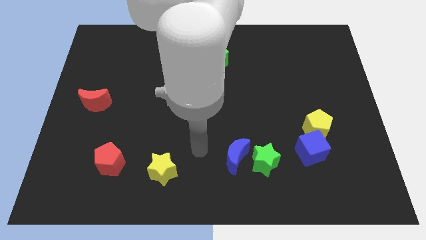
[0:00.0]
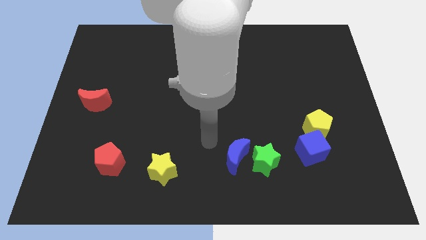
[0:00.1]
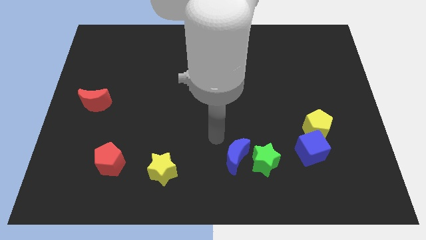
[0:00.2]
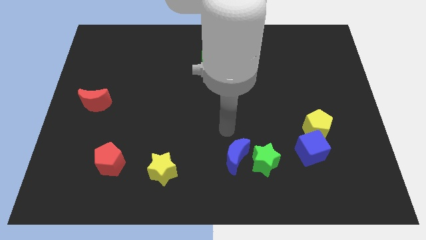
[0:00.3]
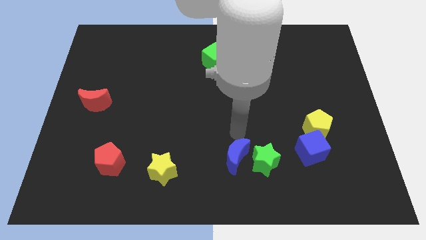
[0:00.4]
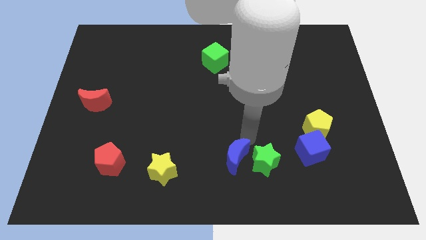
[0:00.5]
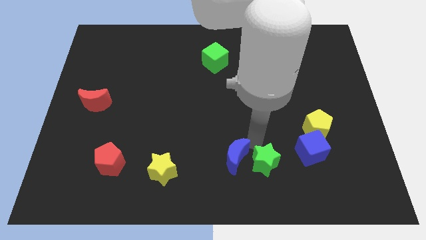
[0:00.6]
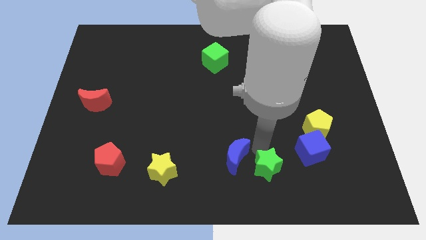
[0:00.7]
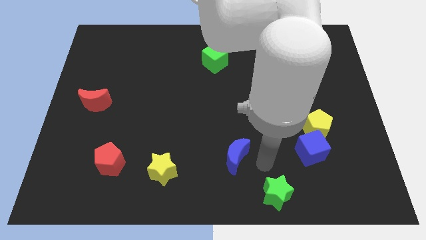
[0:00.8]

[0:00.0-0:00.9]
separate the blue moon from the green star

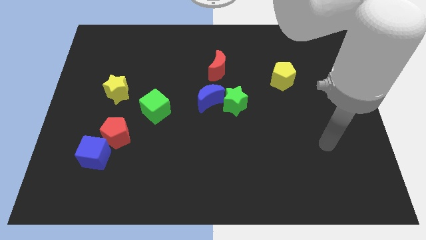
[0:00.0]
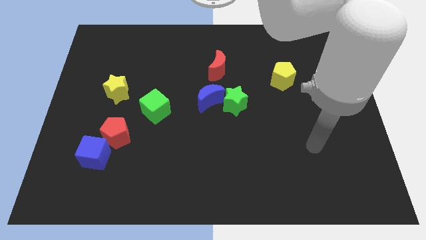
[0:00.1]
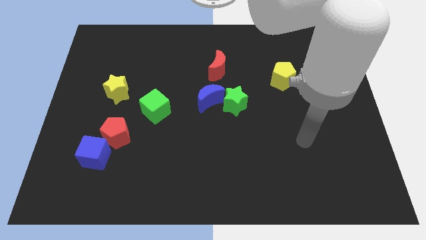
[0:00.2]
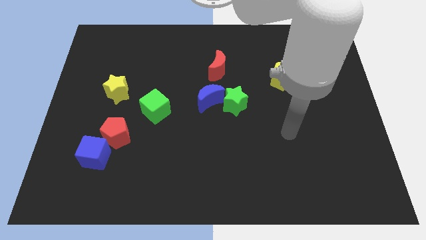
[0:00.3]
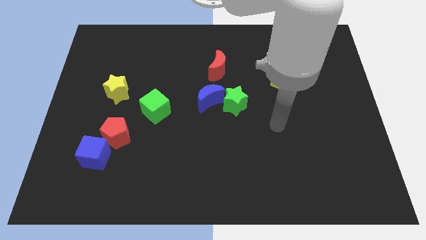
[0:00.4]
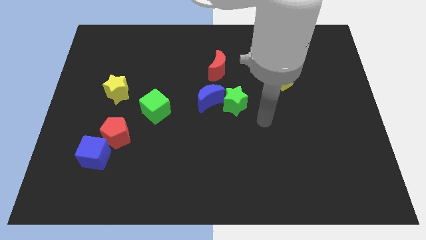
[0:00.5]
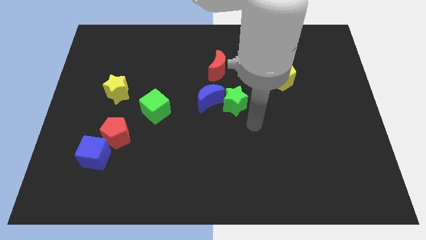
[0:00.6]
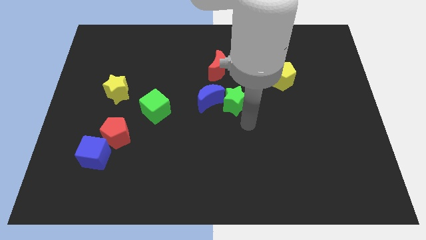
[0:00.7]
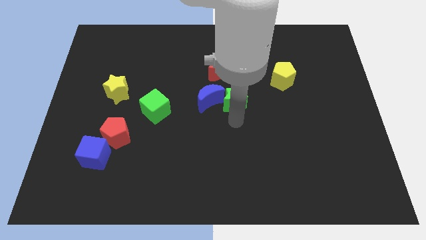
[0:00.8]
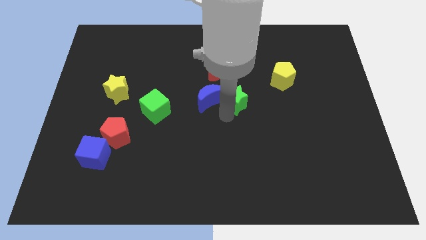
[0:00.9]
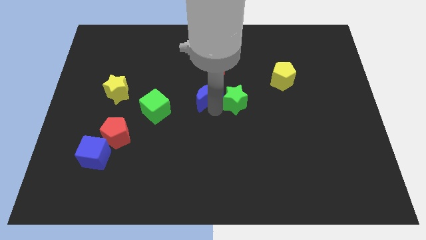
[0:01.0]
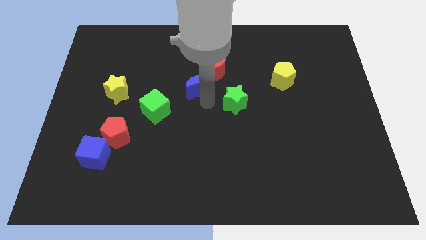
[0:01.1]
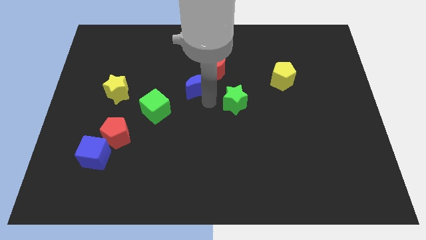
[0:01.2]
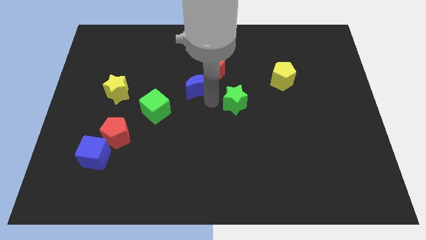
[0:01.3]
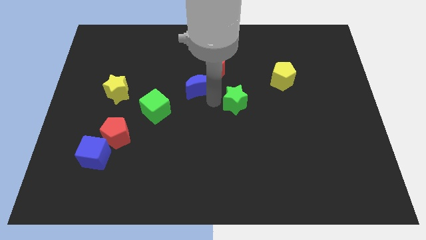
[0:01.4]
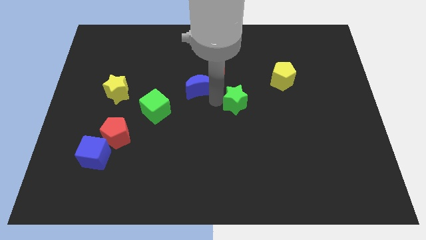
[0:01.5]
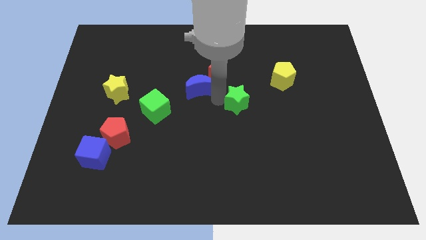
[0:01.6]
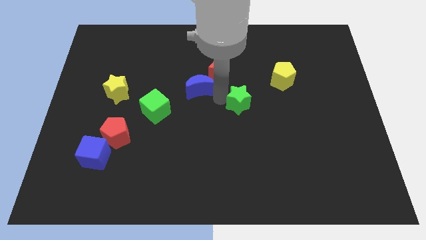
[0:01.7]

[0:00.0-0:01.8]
pull the green star apart from the blue moon

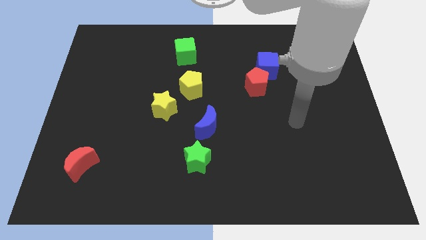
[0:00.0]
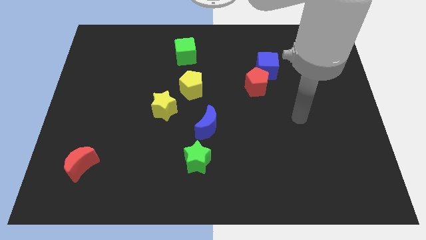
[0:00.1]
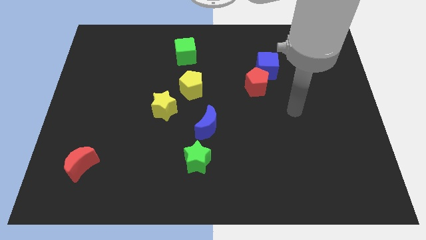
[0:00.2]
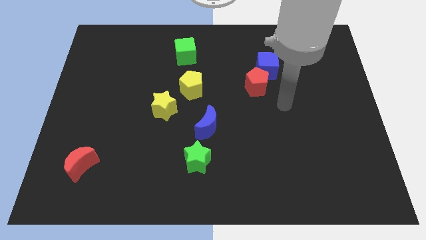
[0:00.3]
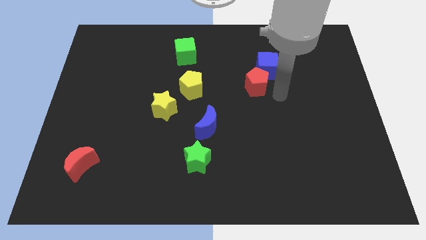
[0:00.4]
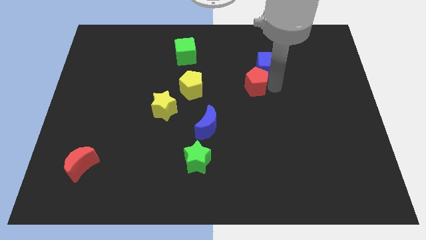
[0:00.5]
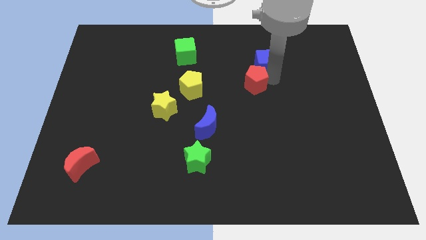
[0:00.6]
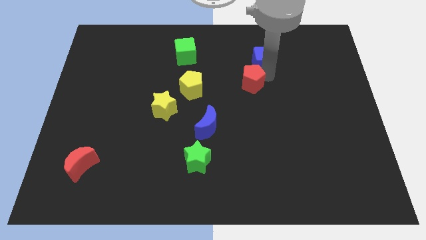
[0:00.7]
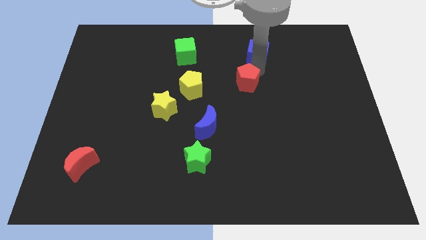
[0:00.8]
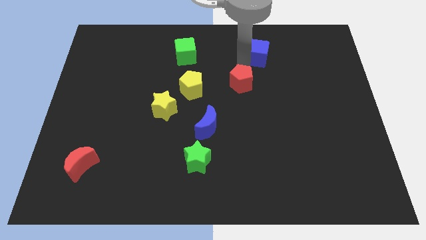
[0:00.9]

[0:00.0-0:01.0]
pull the red pentagon apart from the blue cube

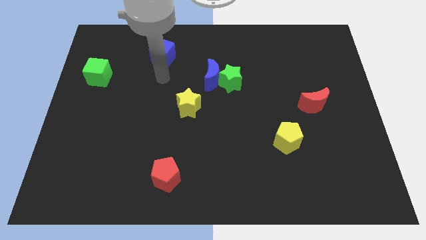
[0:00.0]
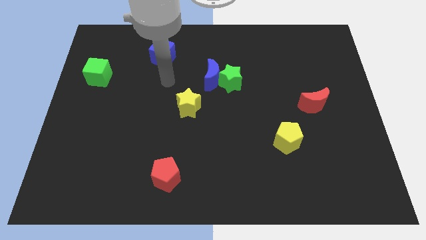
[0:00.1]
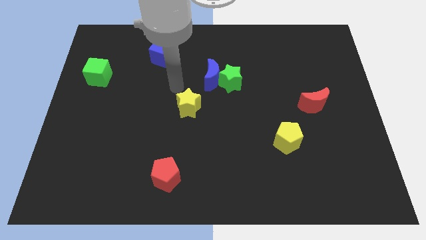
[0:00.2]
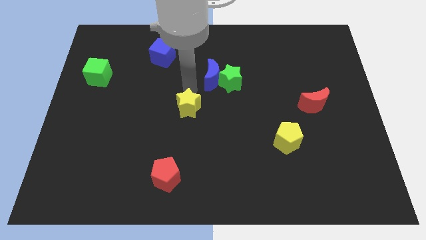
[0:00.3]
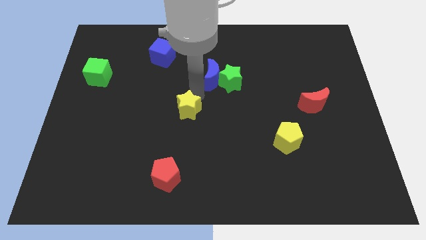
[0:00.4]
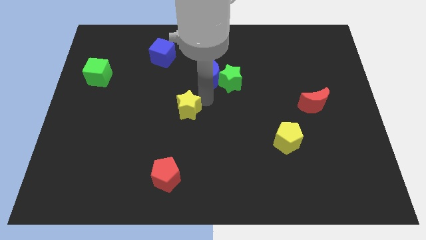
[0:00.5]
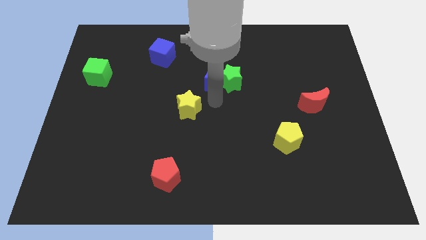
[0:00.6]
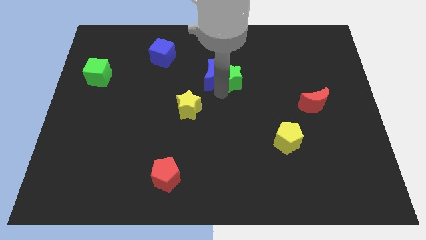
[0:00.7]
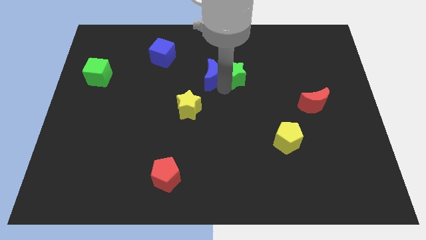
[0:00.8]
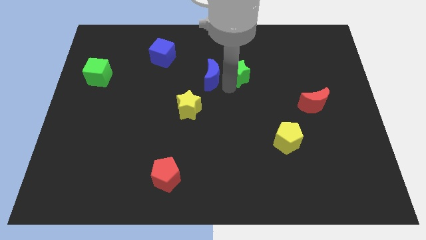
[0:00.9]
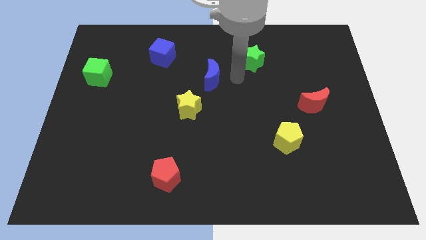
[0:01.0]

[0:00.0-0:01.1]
move the blue moon away from the green star

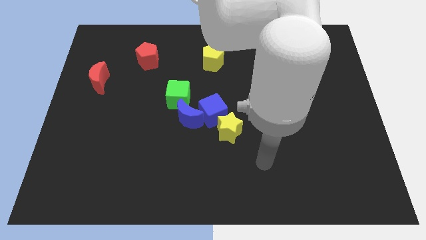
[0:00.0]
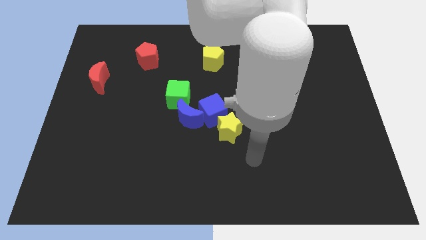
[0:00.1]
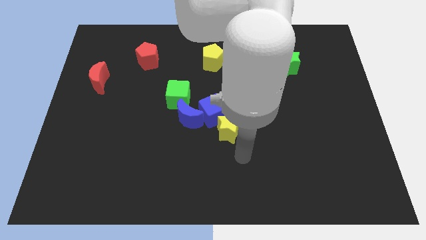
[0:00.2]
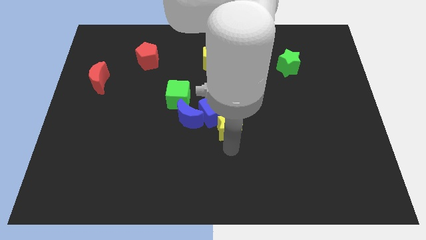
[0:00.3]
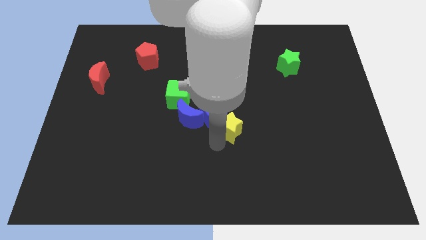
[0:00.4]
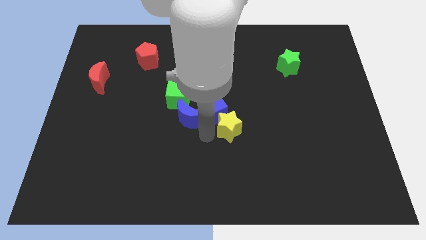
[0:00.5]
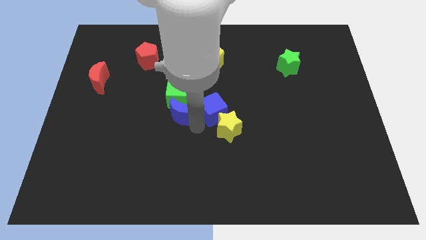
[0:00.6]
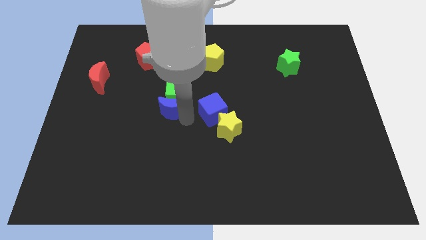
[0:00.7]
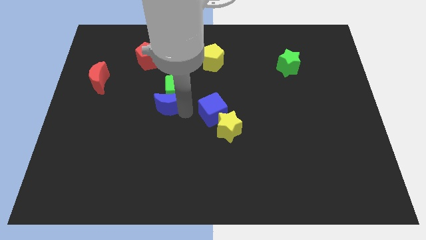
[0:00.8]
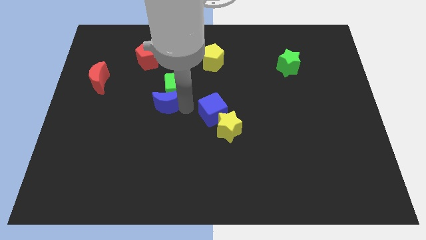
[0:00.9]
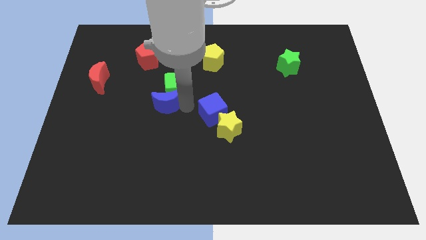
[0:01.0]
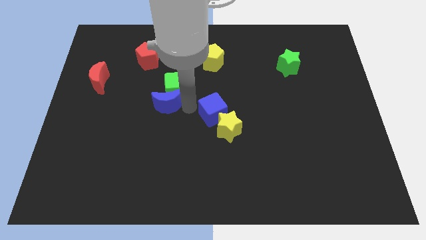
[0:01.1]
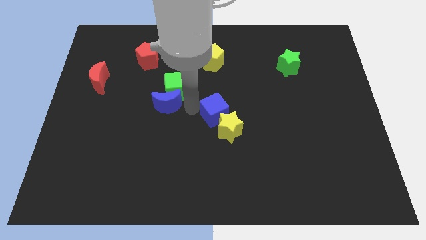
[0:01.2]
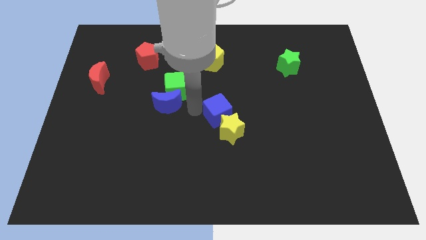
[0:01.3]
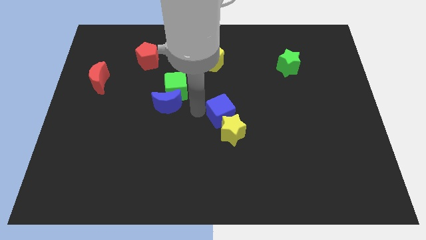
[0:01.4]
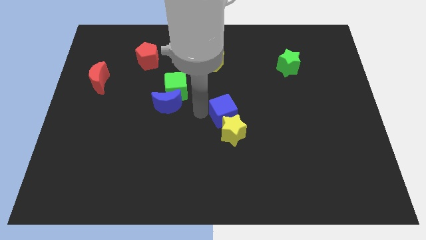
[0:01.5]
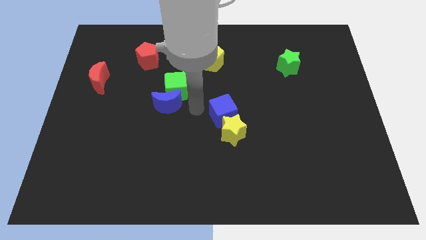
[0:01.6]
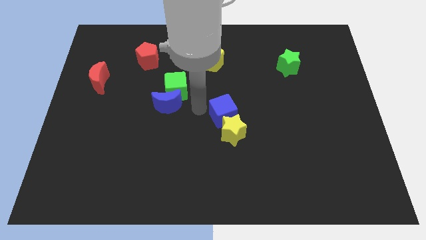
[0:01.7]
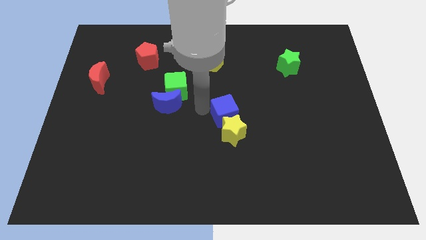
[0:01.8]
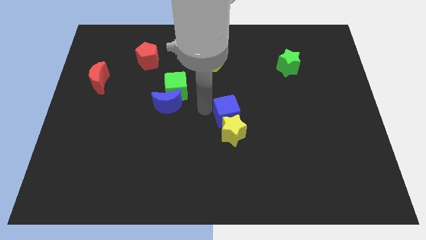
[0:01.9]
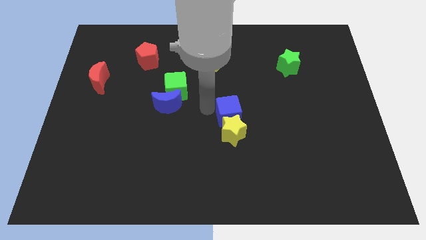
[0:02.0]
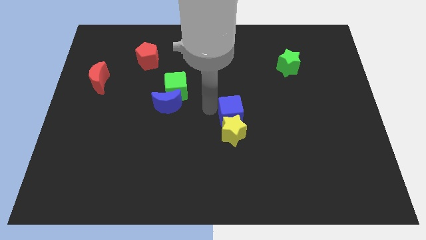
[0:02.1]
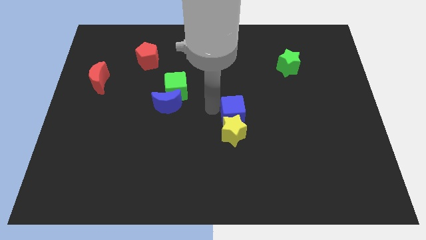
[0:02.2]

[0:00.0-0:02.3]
separate the blue cube from the clump

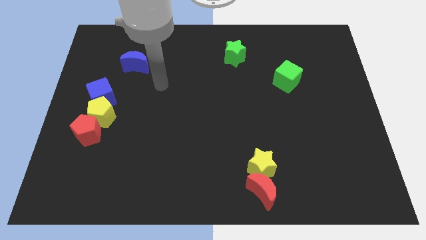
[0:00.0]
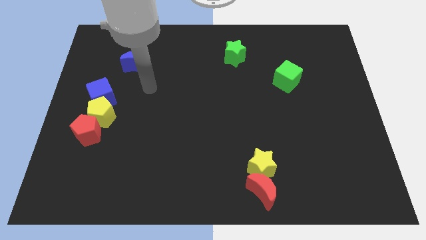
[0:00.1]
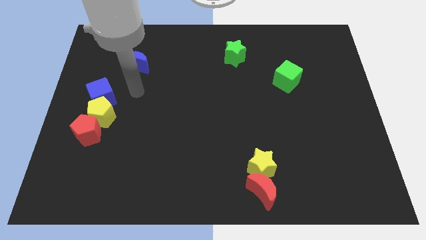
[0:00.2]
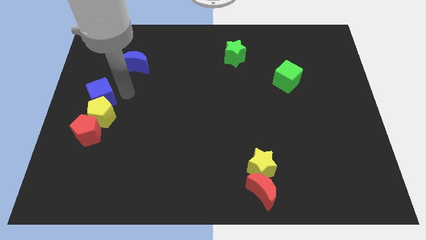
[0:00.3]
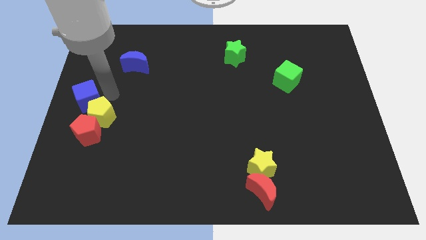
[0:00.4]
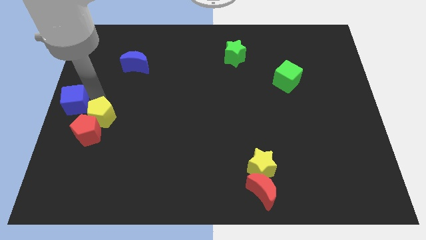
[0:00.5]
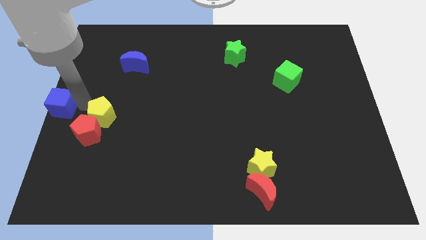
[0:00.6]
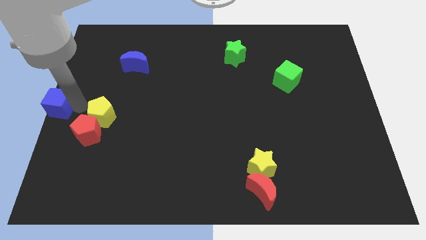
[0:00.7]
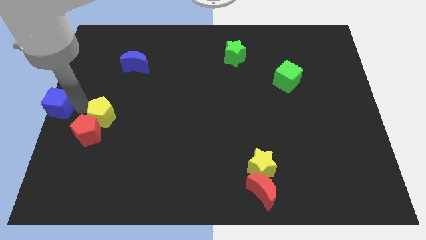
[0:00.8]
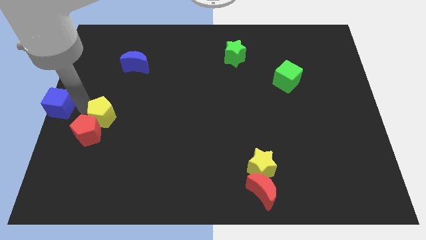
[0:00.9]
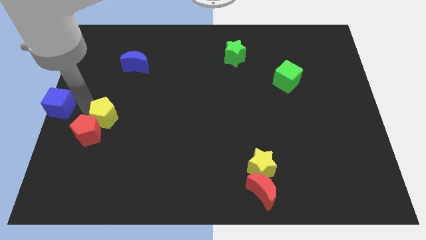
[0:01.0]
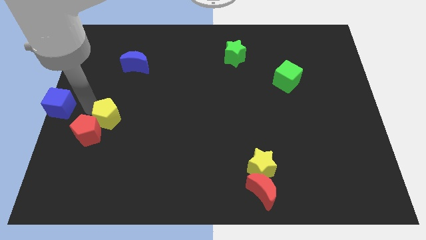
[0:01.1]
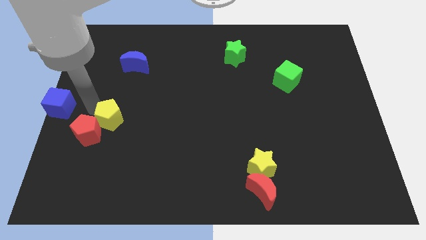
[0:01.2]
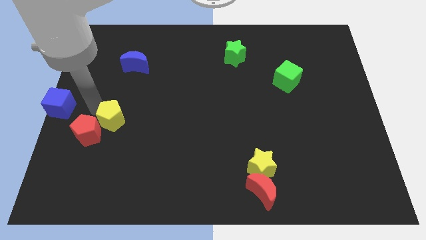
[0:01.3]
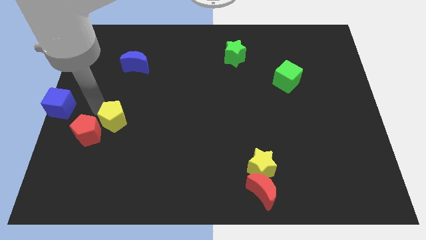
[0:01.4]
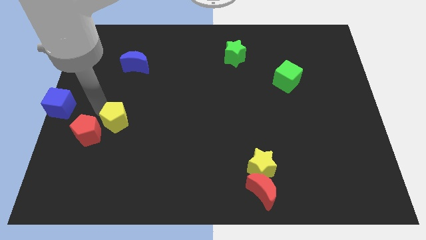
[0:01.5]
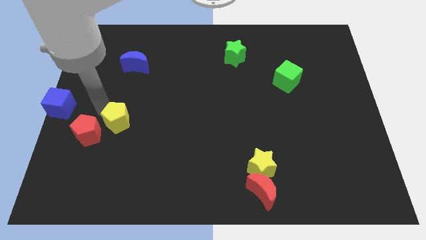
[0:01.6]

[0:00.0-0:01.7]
move the yellow pentagon away from the red pentagon and blue cube

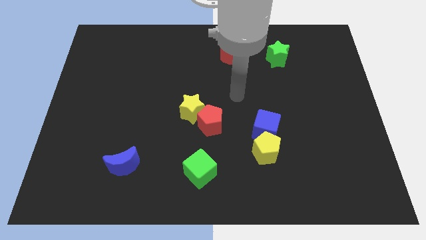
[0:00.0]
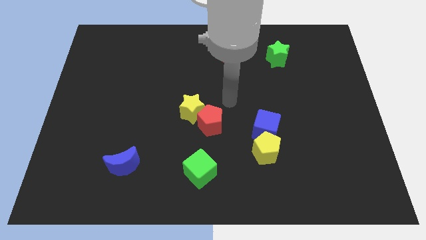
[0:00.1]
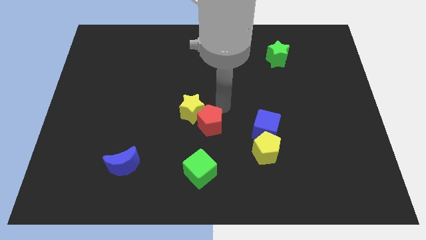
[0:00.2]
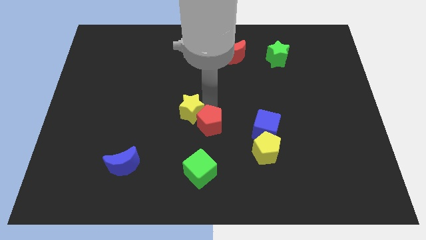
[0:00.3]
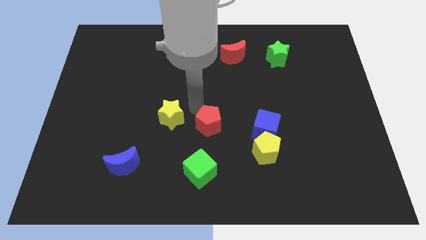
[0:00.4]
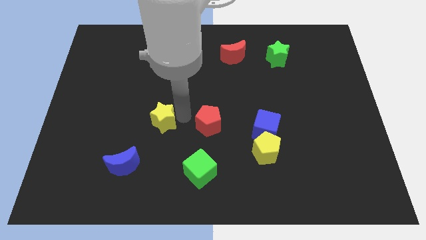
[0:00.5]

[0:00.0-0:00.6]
pull the red pentagon apart from the yellow star
